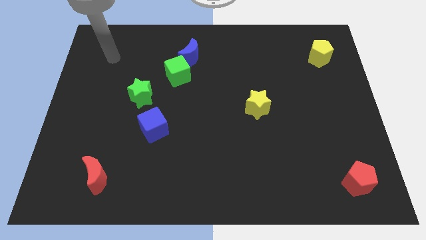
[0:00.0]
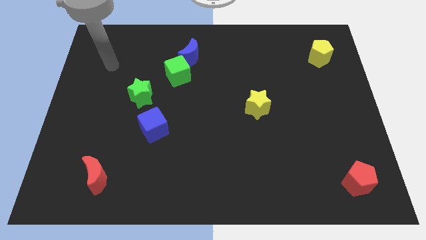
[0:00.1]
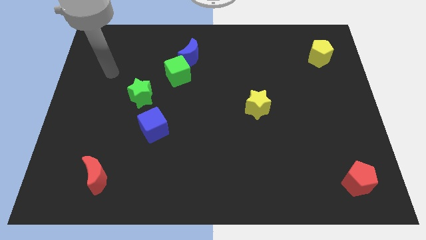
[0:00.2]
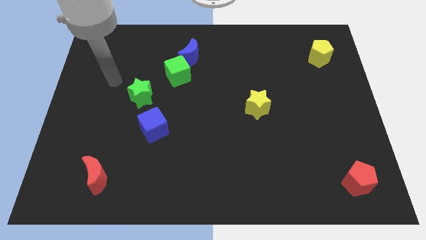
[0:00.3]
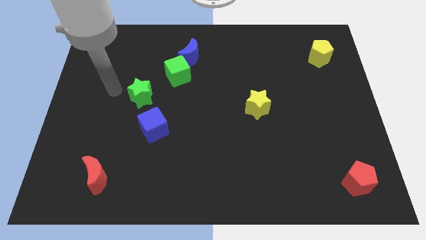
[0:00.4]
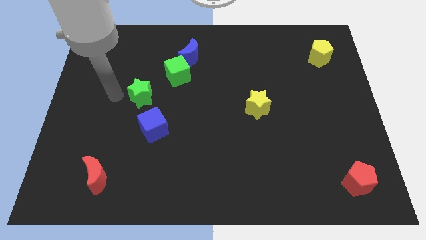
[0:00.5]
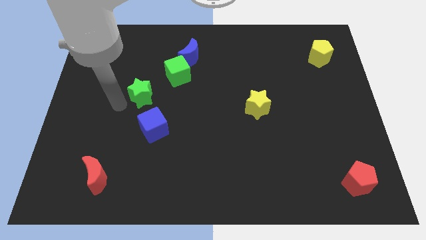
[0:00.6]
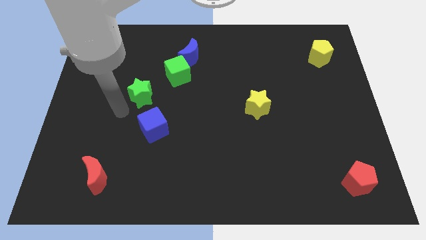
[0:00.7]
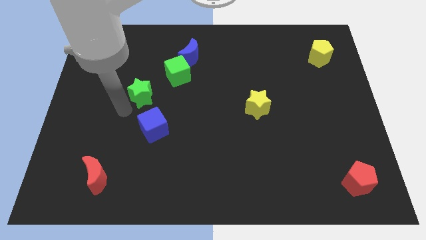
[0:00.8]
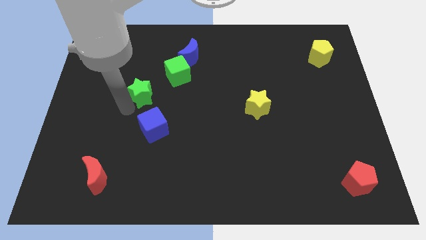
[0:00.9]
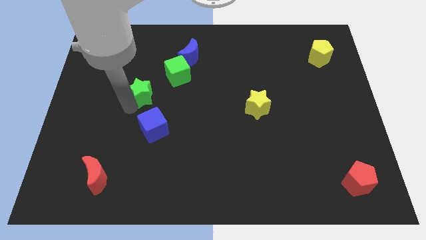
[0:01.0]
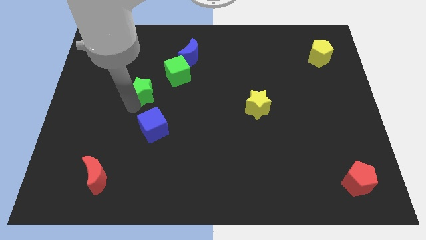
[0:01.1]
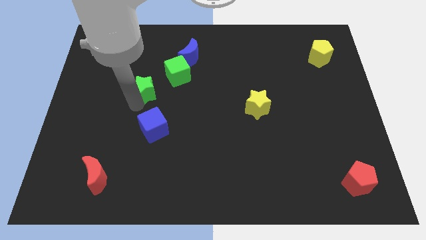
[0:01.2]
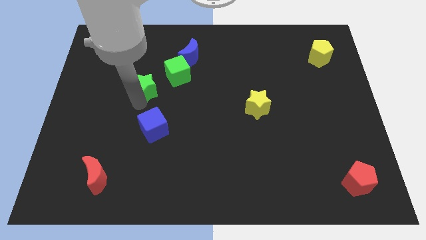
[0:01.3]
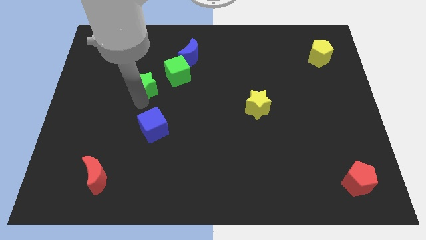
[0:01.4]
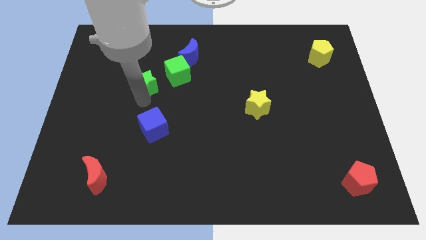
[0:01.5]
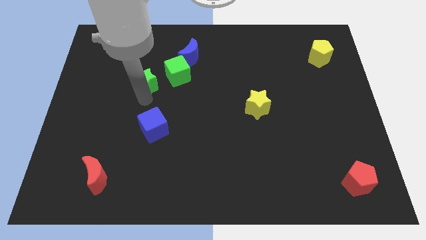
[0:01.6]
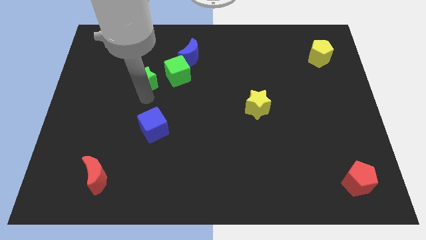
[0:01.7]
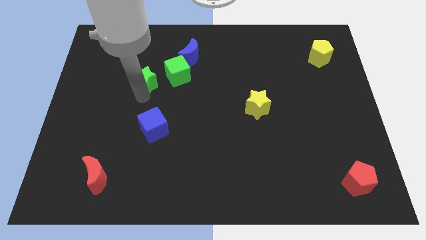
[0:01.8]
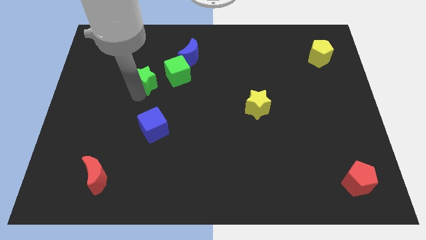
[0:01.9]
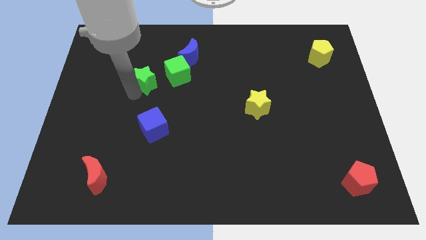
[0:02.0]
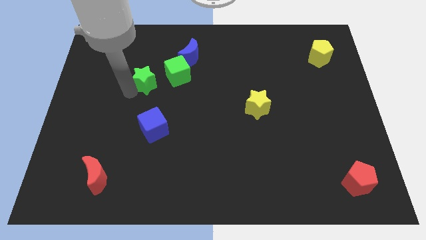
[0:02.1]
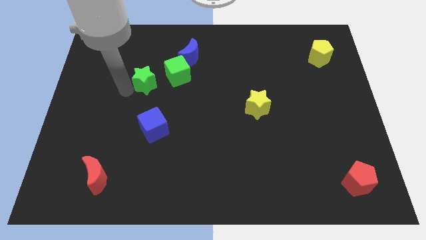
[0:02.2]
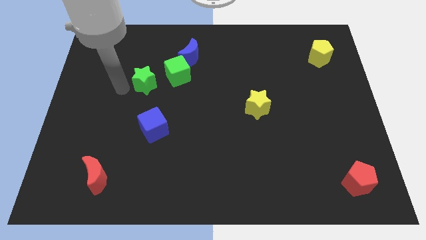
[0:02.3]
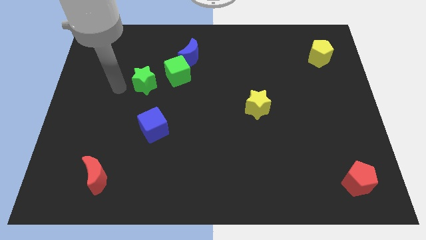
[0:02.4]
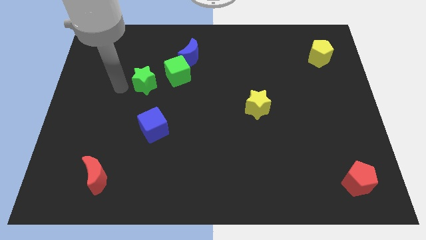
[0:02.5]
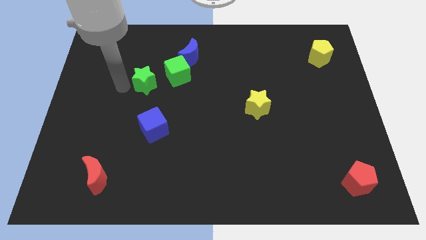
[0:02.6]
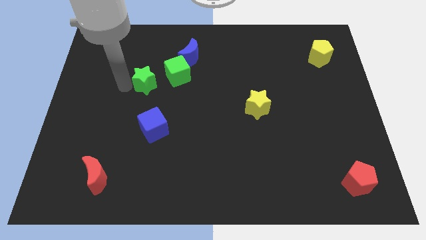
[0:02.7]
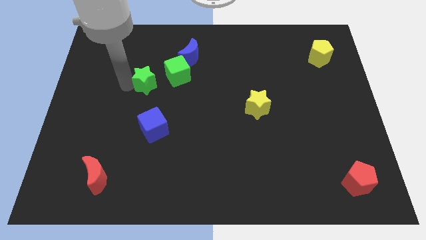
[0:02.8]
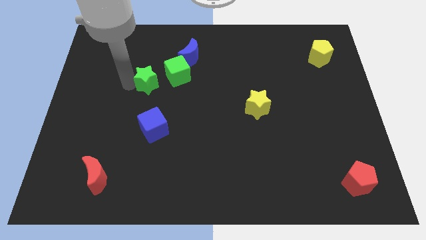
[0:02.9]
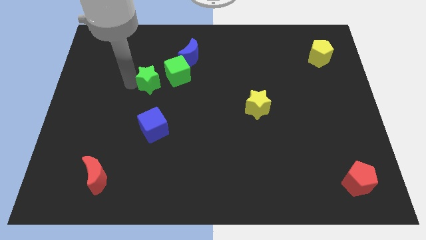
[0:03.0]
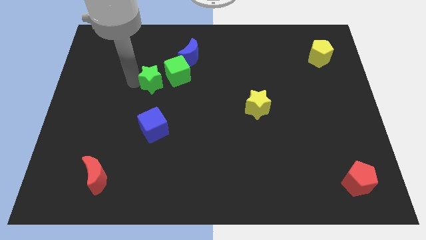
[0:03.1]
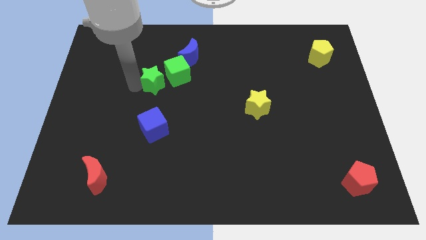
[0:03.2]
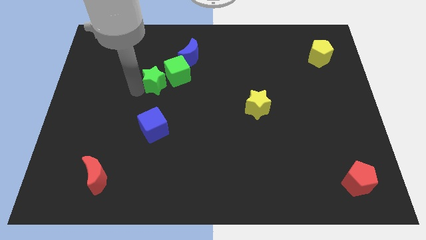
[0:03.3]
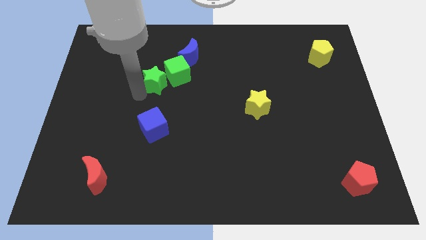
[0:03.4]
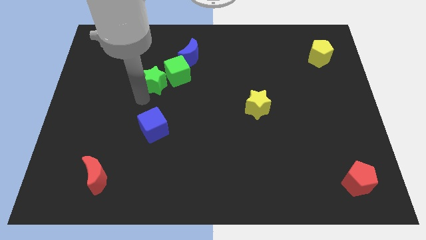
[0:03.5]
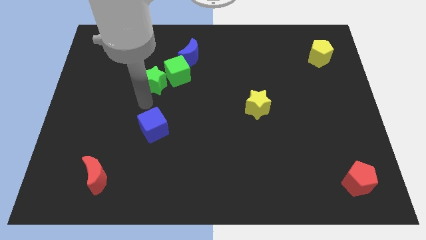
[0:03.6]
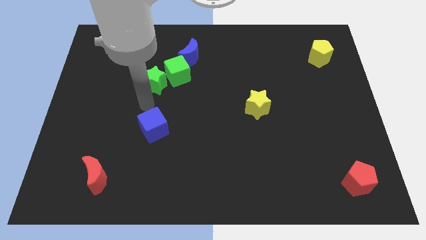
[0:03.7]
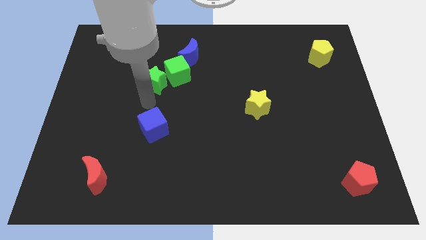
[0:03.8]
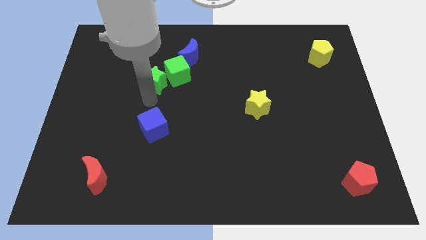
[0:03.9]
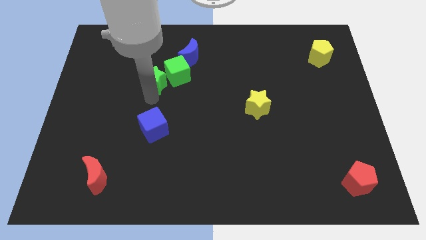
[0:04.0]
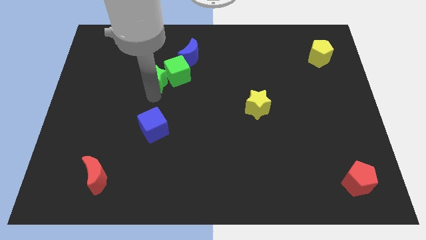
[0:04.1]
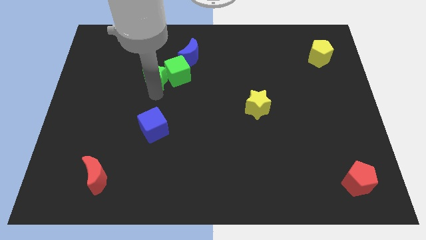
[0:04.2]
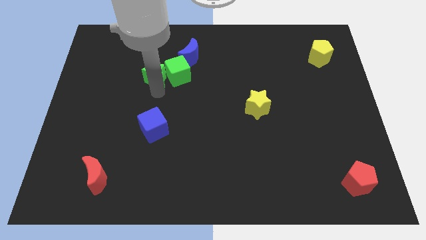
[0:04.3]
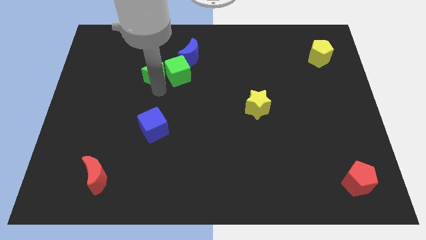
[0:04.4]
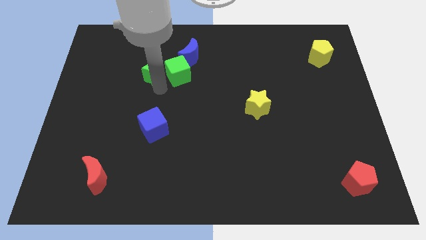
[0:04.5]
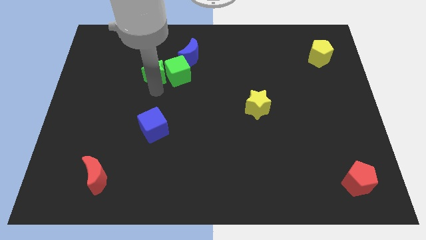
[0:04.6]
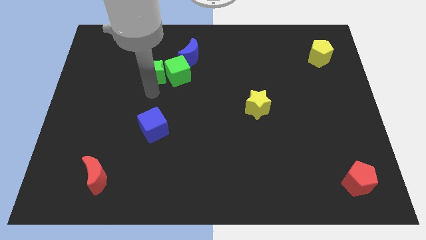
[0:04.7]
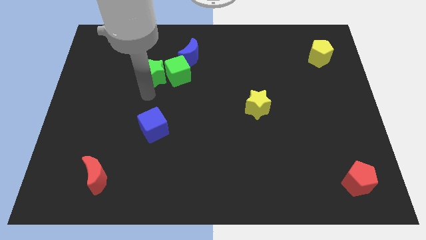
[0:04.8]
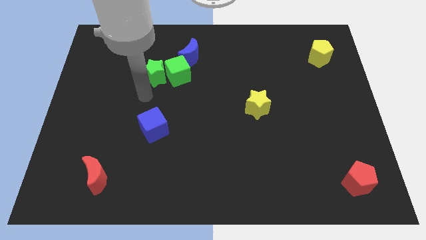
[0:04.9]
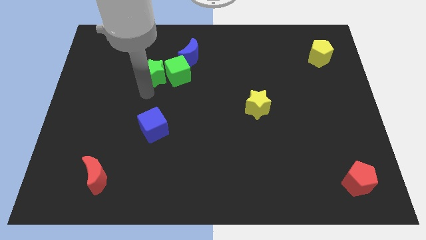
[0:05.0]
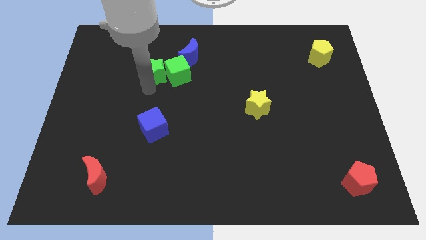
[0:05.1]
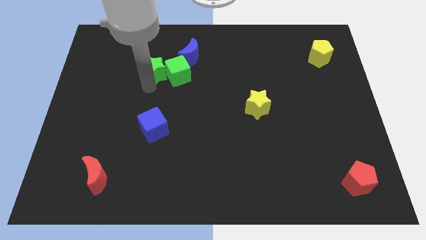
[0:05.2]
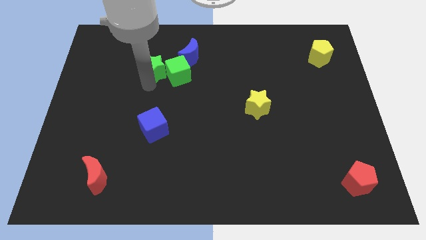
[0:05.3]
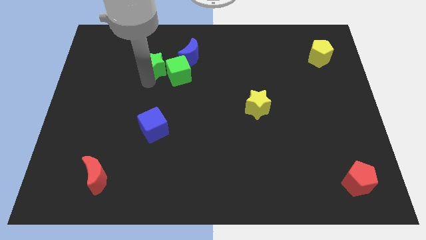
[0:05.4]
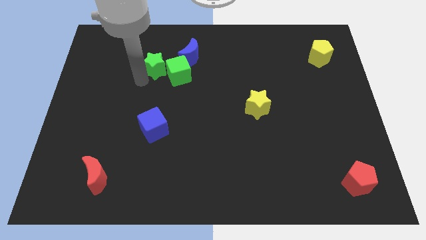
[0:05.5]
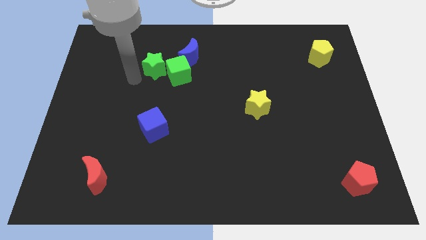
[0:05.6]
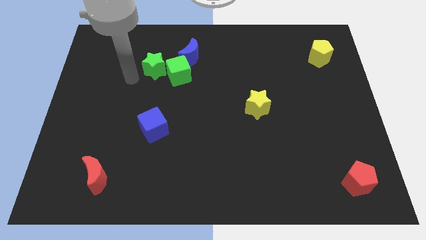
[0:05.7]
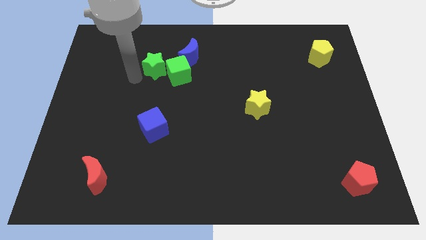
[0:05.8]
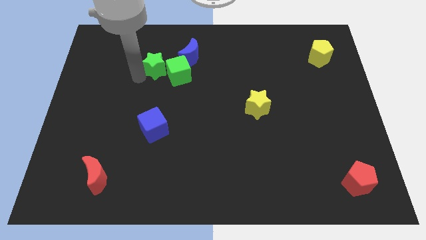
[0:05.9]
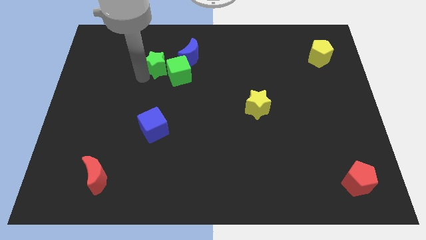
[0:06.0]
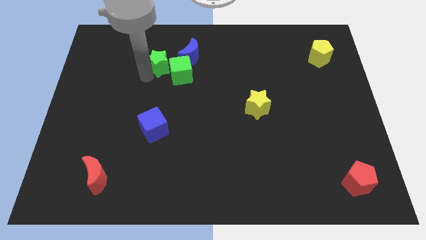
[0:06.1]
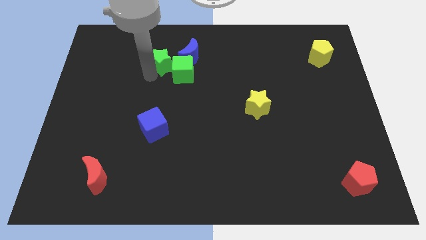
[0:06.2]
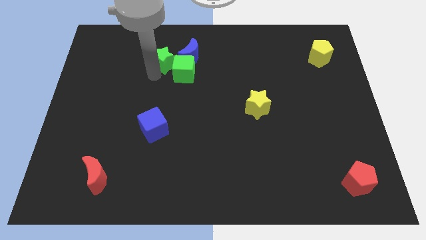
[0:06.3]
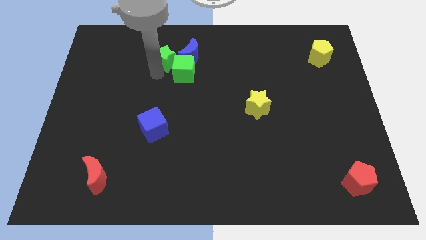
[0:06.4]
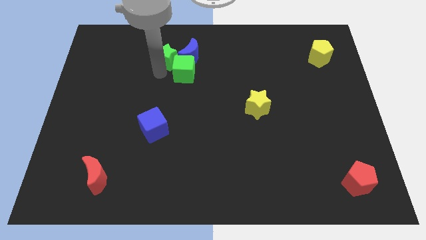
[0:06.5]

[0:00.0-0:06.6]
slide the green star towards the blue moon

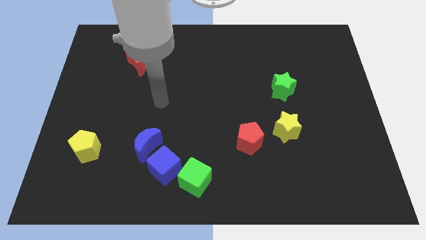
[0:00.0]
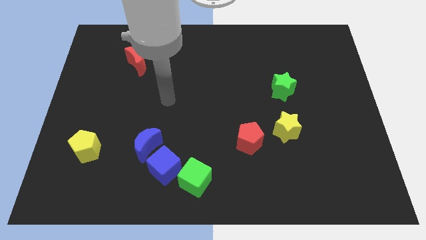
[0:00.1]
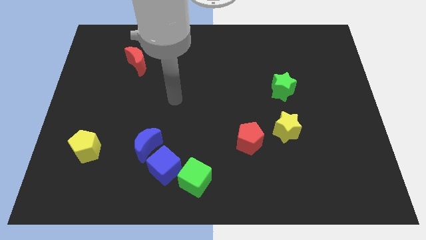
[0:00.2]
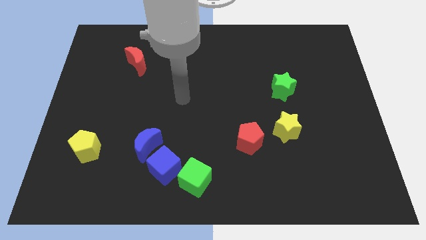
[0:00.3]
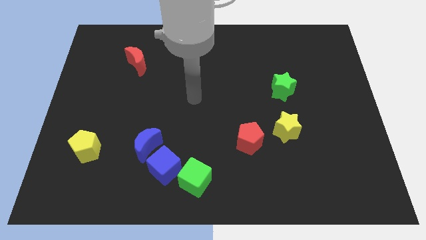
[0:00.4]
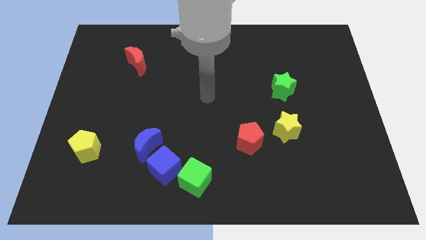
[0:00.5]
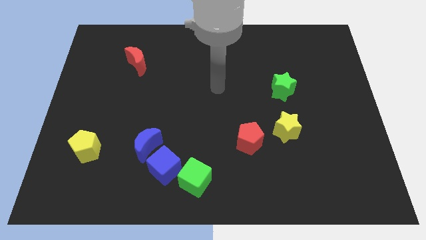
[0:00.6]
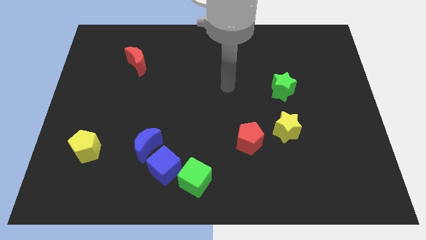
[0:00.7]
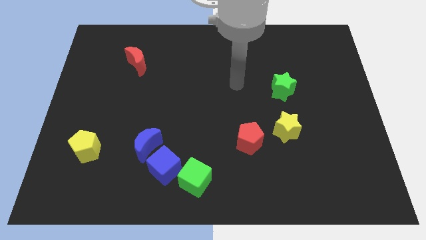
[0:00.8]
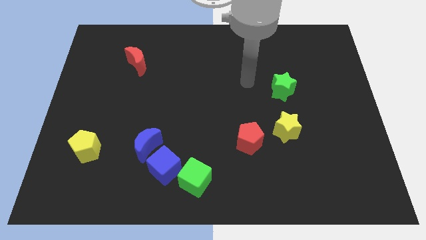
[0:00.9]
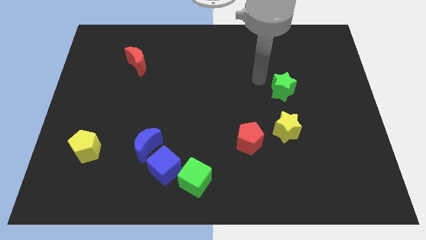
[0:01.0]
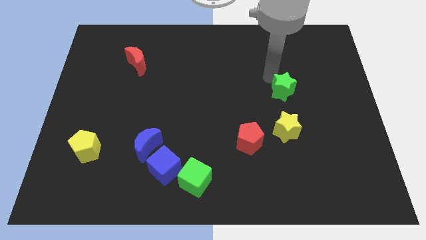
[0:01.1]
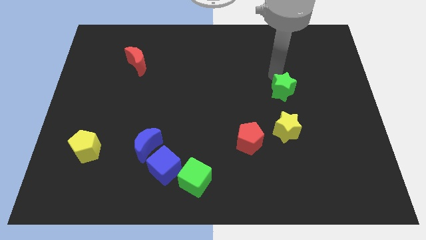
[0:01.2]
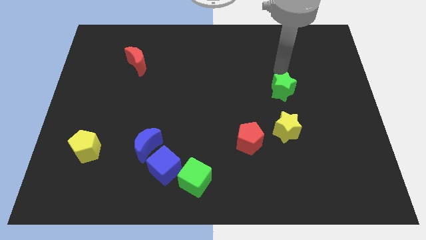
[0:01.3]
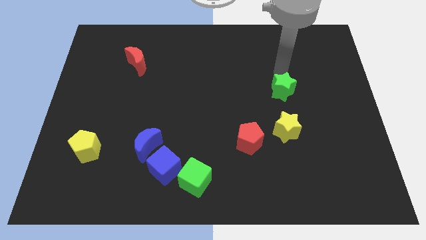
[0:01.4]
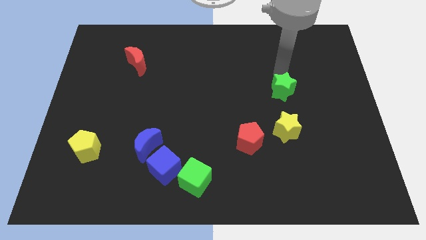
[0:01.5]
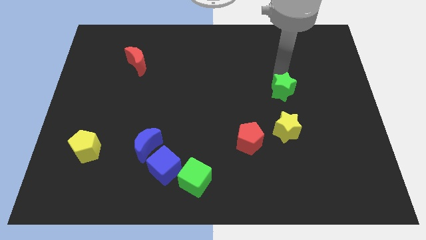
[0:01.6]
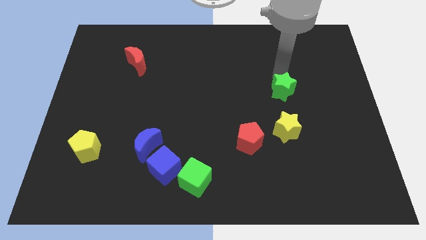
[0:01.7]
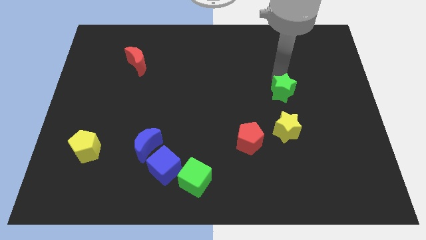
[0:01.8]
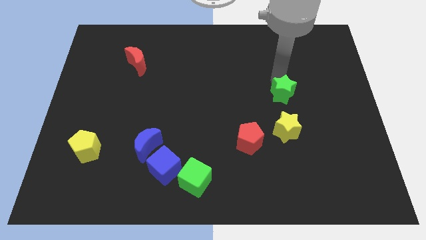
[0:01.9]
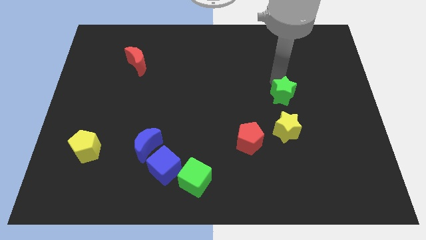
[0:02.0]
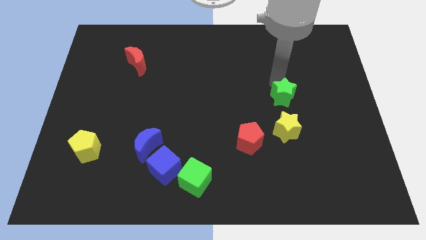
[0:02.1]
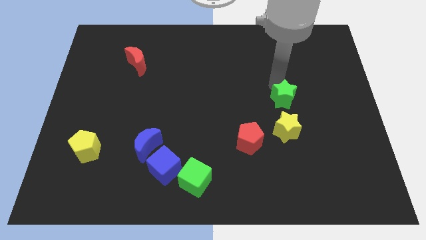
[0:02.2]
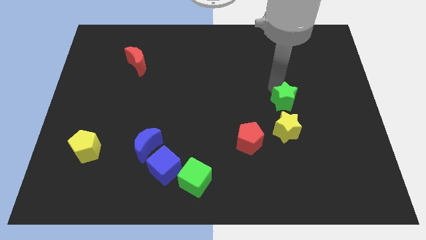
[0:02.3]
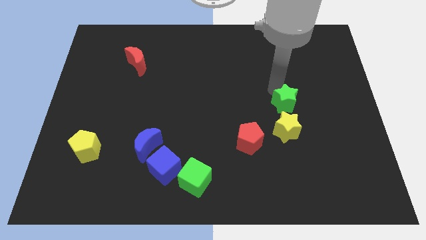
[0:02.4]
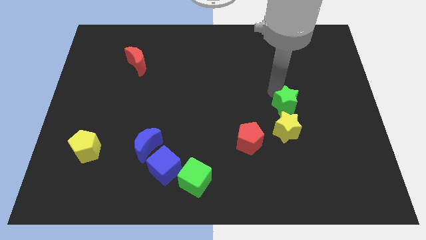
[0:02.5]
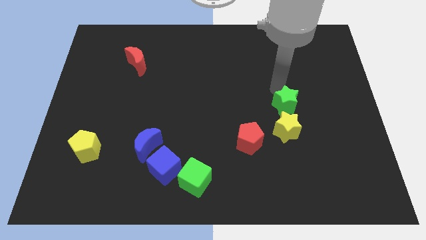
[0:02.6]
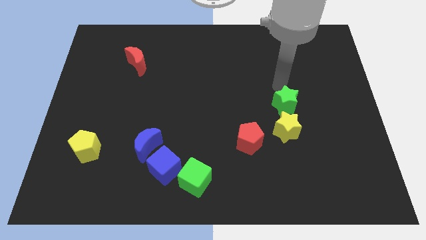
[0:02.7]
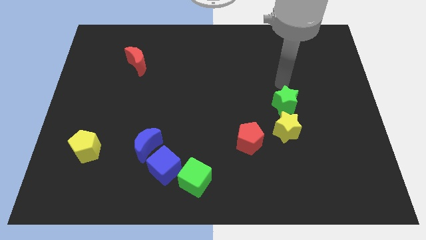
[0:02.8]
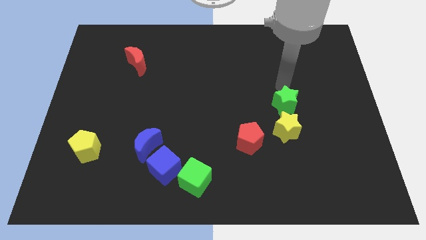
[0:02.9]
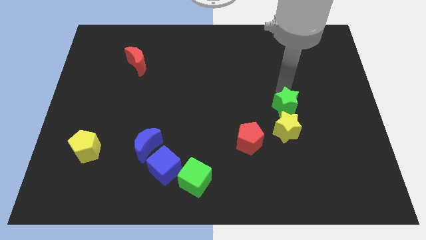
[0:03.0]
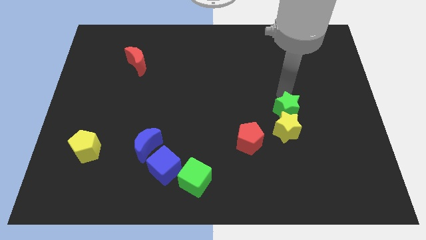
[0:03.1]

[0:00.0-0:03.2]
put the green star close to the yellow star
